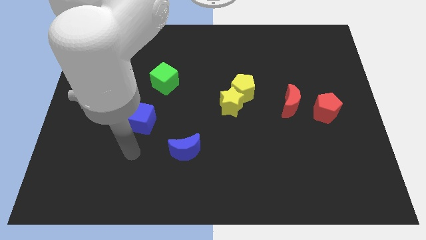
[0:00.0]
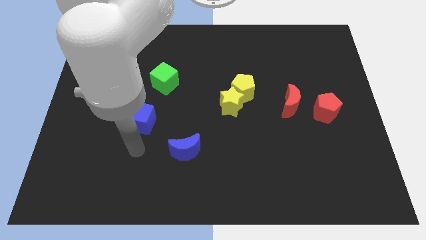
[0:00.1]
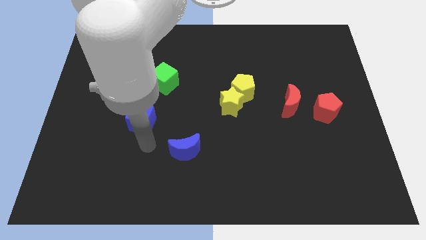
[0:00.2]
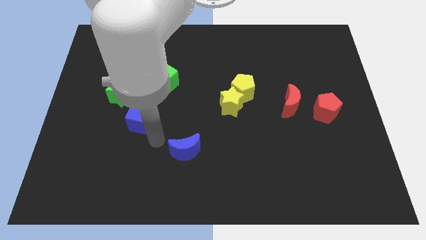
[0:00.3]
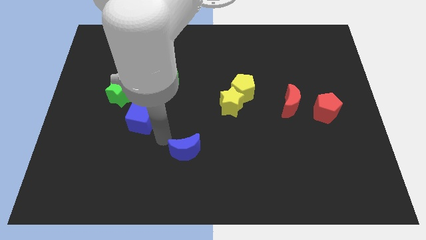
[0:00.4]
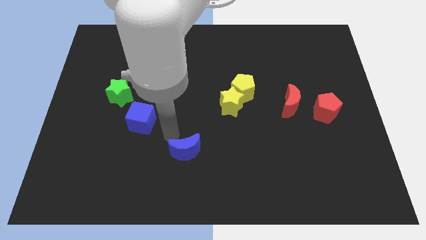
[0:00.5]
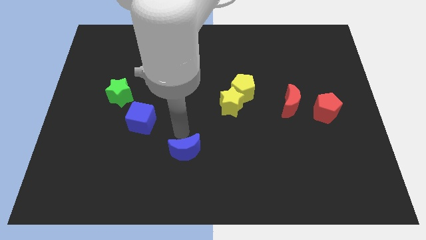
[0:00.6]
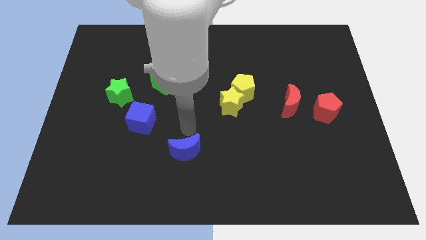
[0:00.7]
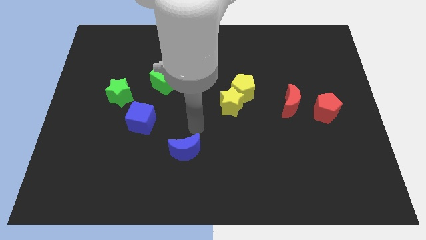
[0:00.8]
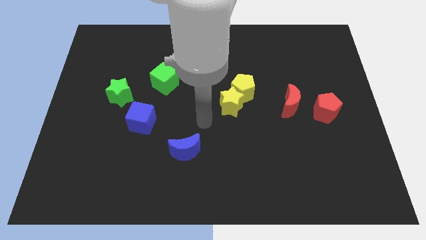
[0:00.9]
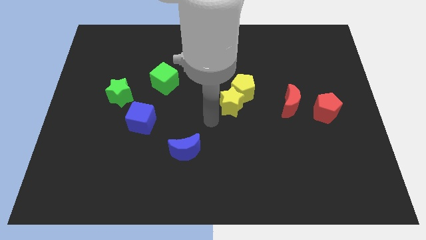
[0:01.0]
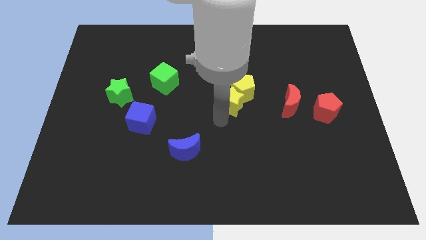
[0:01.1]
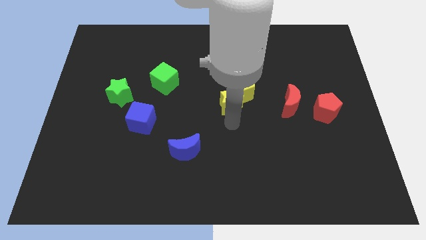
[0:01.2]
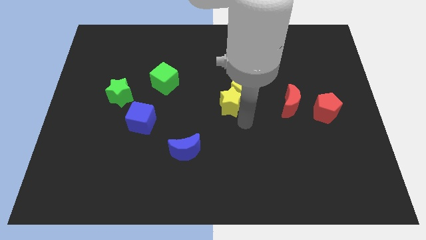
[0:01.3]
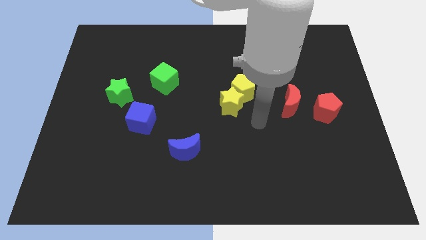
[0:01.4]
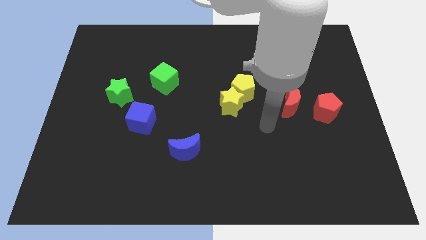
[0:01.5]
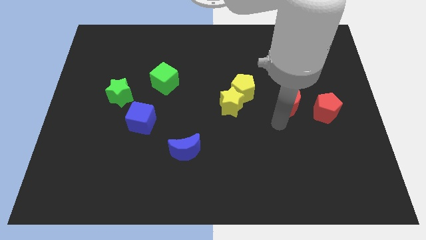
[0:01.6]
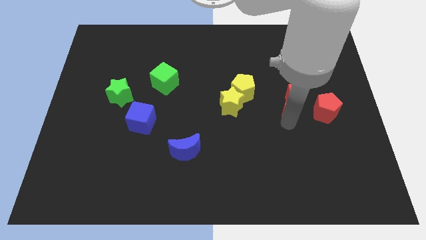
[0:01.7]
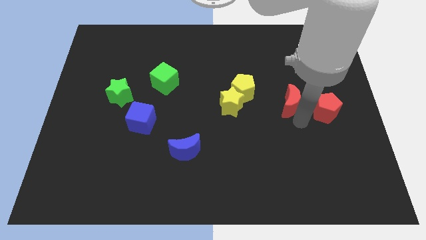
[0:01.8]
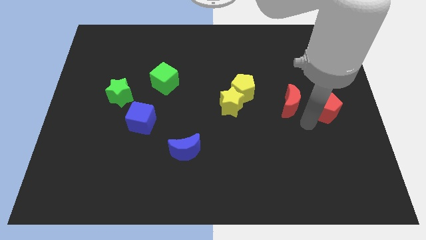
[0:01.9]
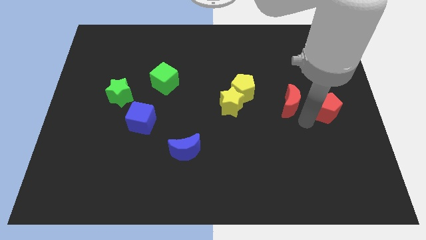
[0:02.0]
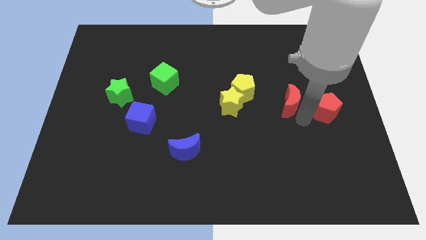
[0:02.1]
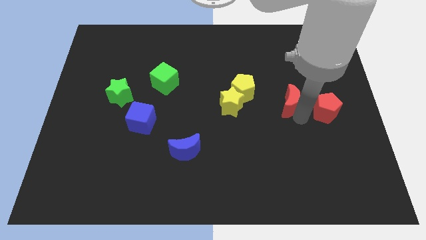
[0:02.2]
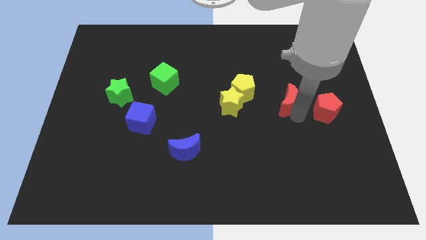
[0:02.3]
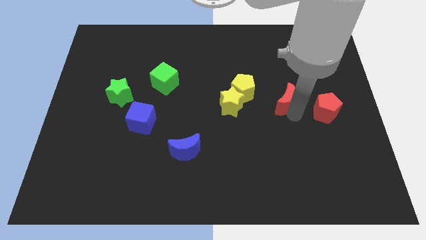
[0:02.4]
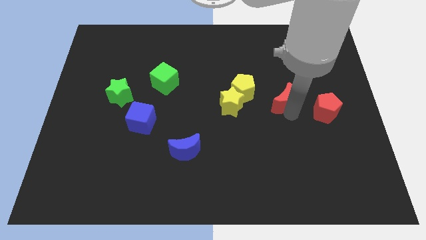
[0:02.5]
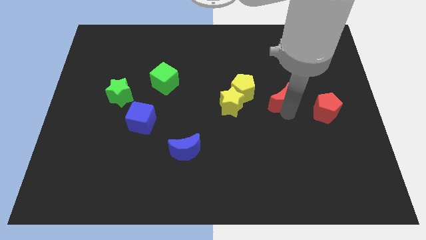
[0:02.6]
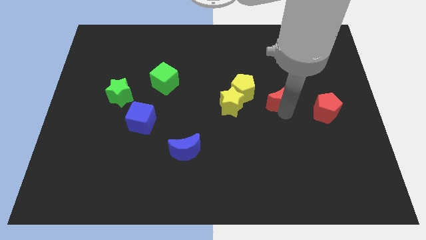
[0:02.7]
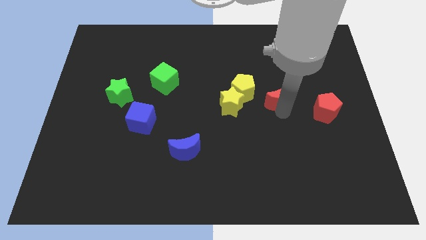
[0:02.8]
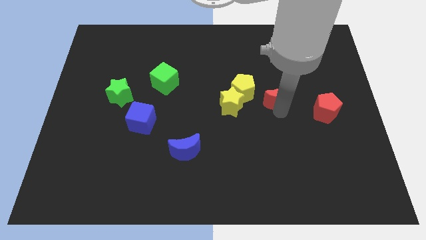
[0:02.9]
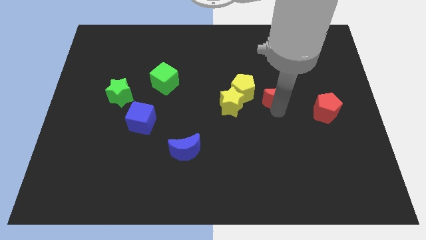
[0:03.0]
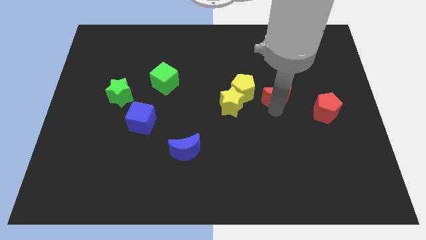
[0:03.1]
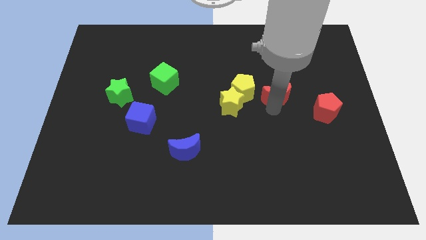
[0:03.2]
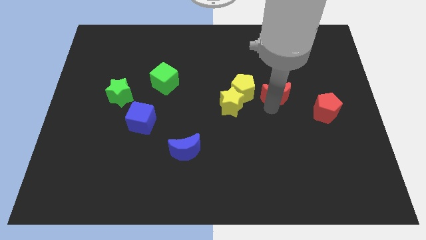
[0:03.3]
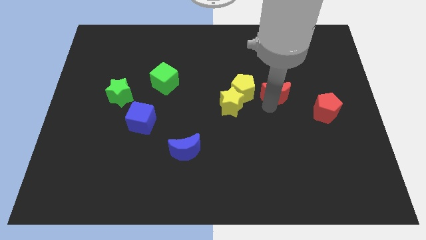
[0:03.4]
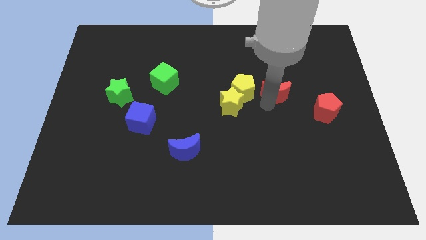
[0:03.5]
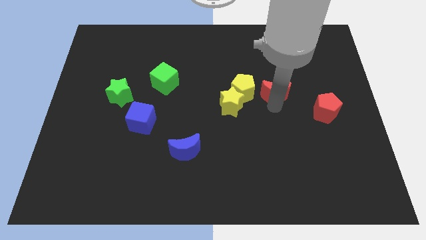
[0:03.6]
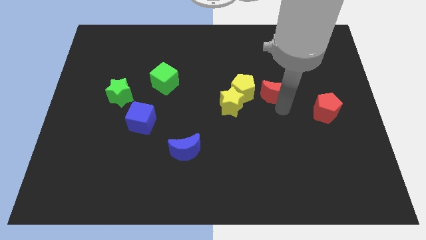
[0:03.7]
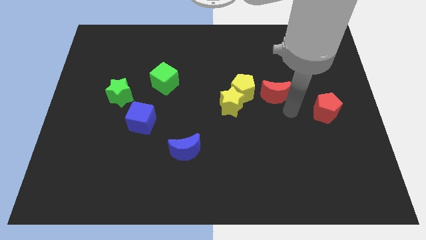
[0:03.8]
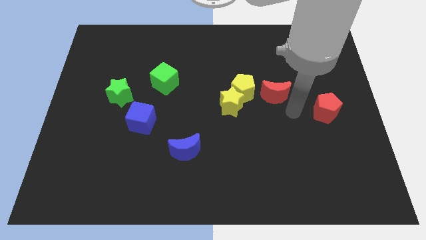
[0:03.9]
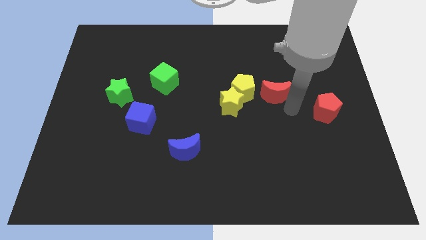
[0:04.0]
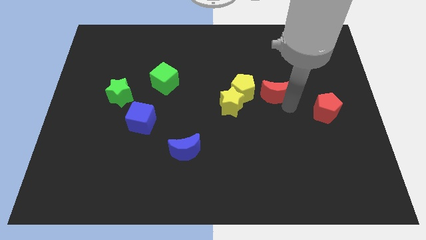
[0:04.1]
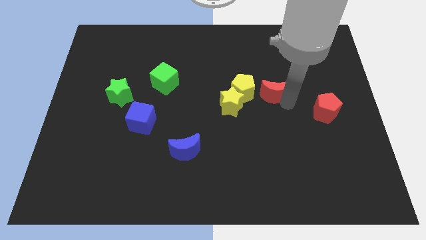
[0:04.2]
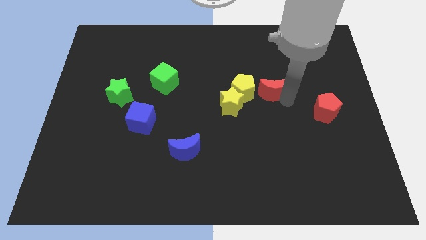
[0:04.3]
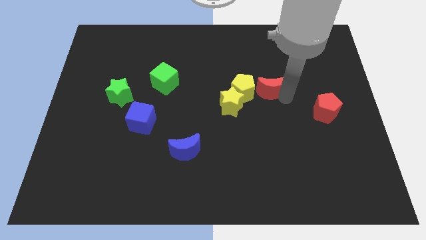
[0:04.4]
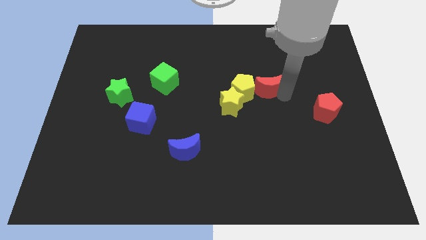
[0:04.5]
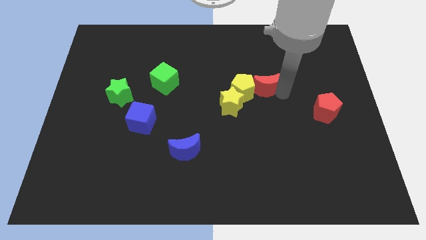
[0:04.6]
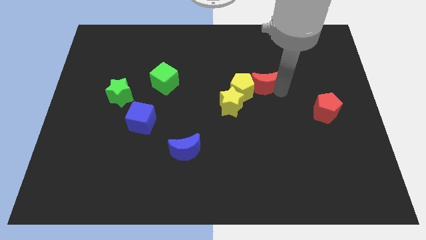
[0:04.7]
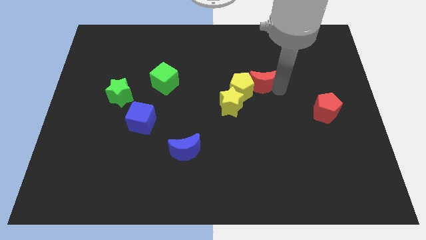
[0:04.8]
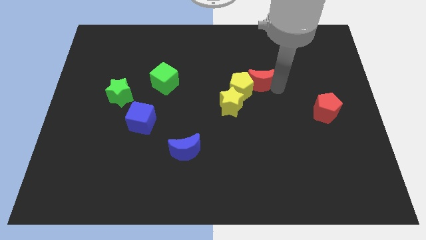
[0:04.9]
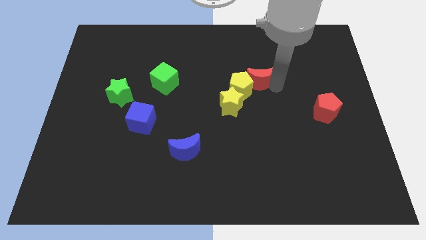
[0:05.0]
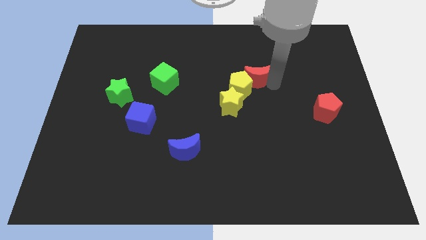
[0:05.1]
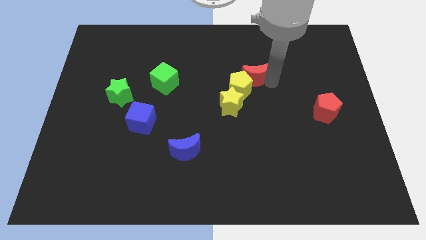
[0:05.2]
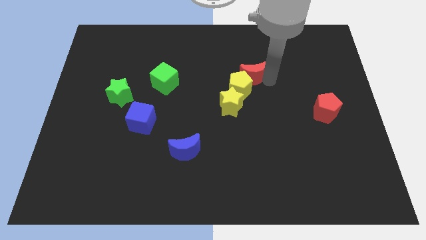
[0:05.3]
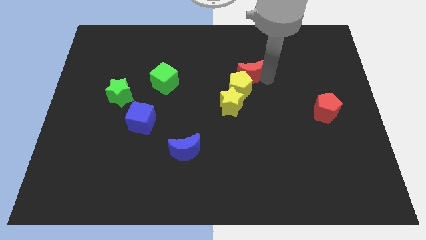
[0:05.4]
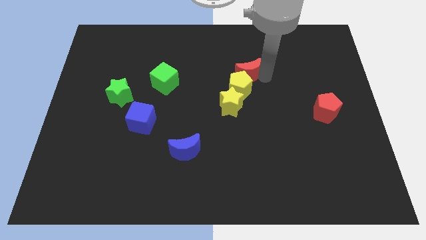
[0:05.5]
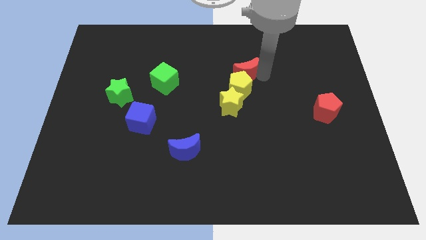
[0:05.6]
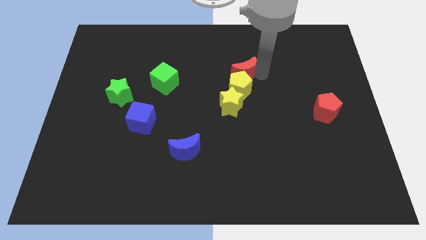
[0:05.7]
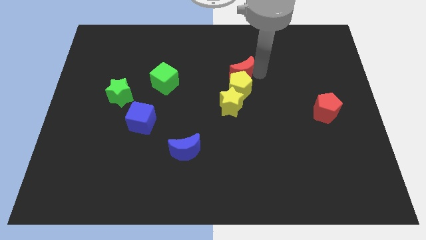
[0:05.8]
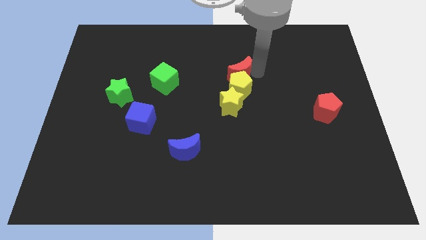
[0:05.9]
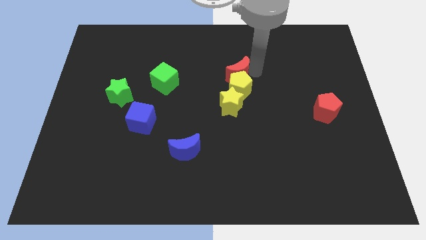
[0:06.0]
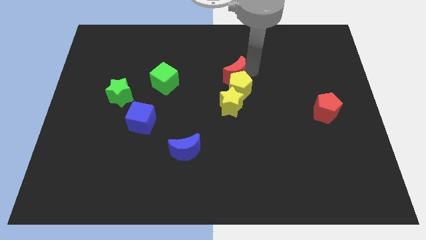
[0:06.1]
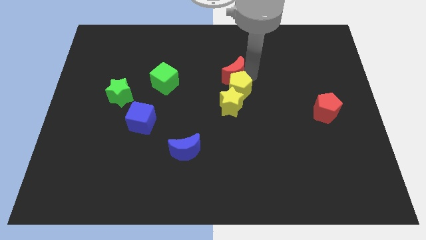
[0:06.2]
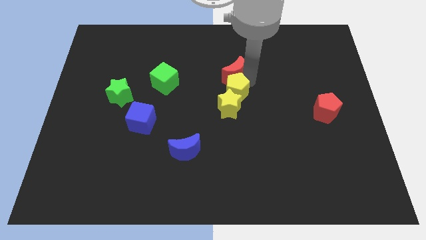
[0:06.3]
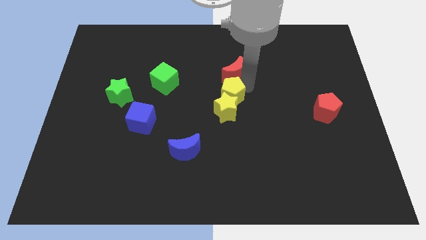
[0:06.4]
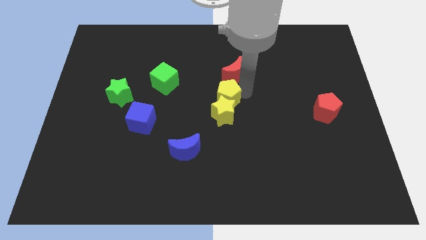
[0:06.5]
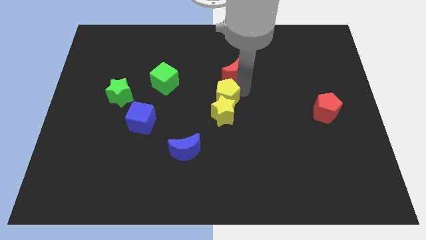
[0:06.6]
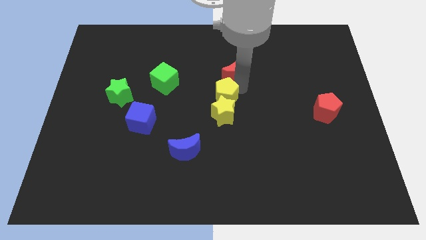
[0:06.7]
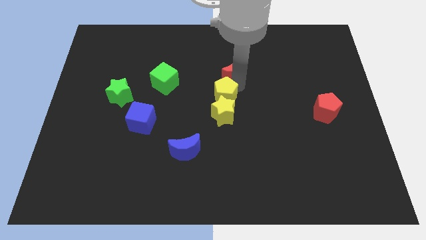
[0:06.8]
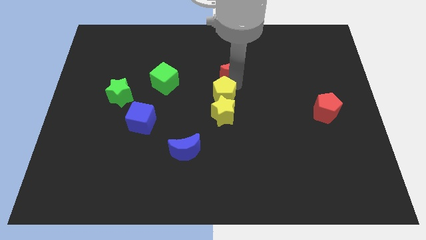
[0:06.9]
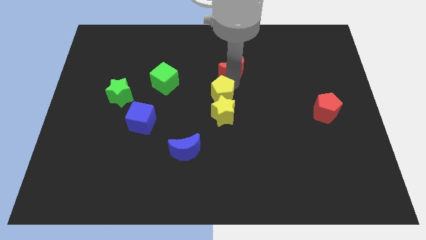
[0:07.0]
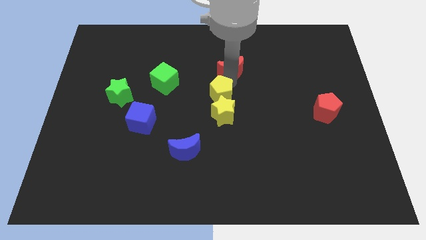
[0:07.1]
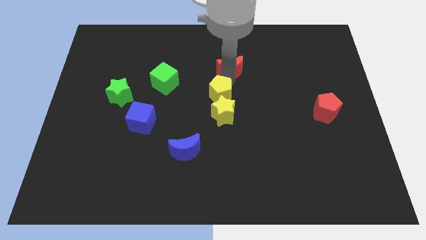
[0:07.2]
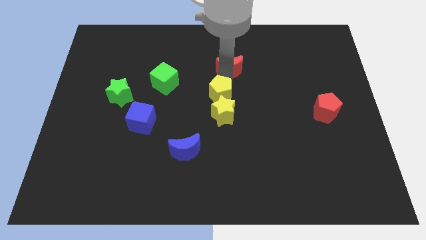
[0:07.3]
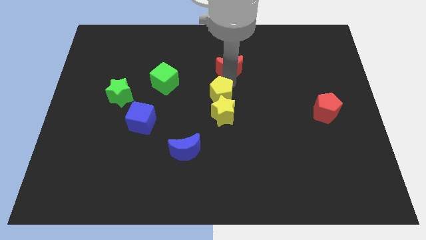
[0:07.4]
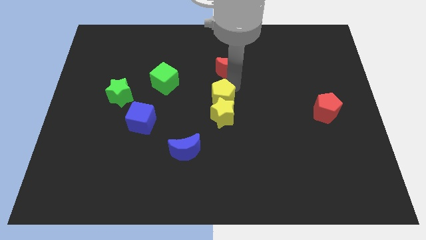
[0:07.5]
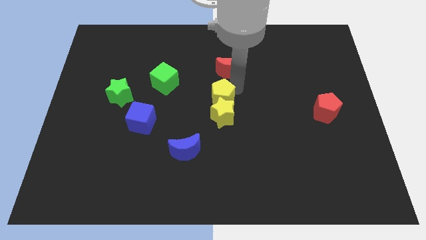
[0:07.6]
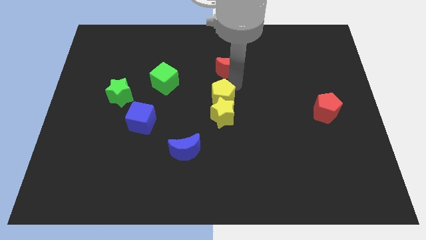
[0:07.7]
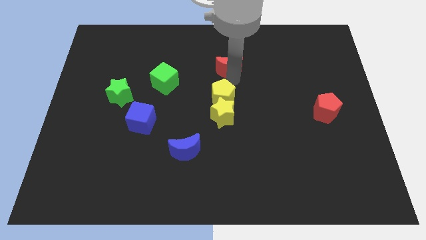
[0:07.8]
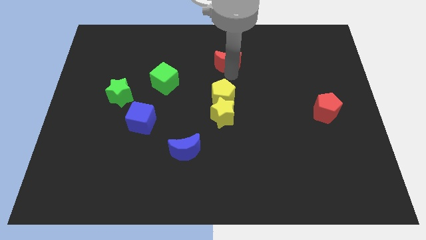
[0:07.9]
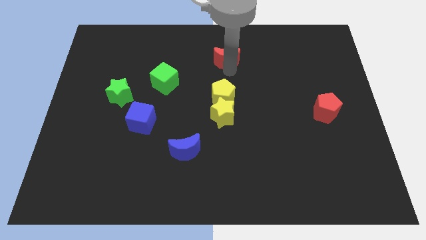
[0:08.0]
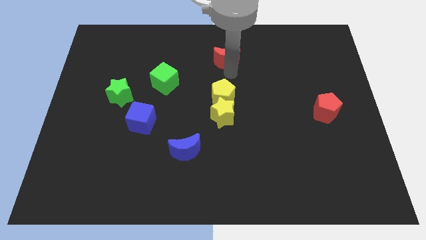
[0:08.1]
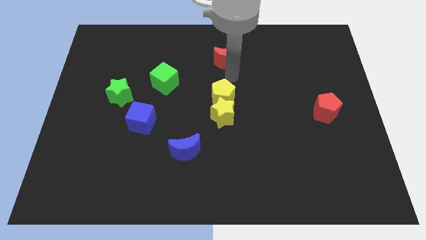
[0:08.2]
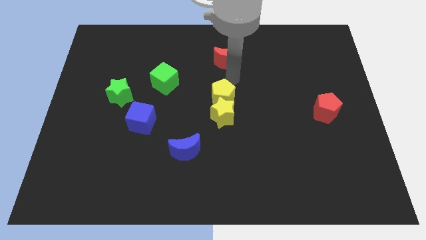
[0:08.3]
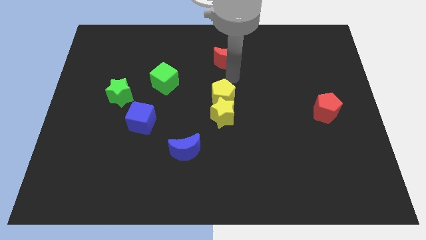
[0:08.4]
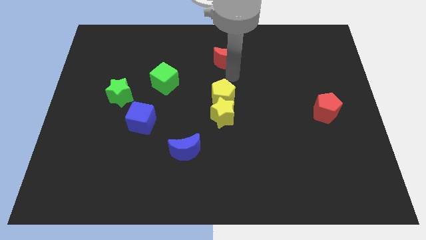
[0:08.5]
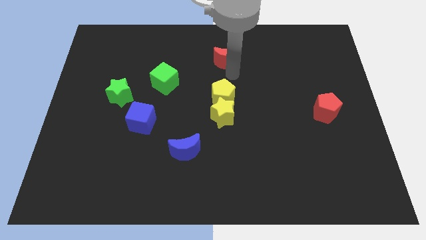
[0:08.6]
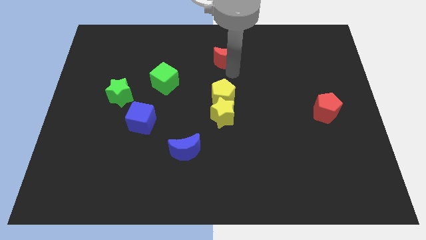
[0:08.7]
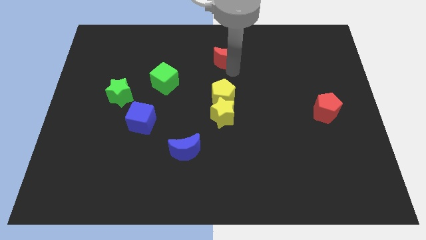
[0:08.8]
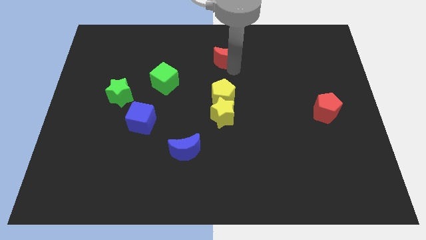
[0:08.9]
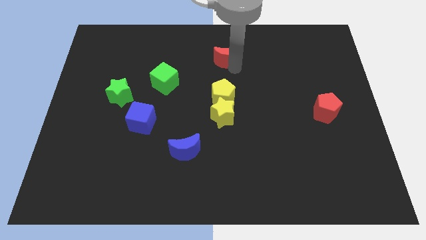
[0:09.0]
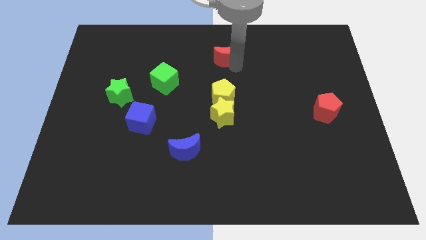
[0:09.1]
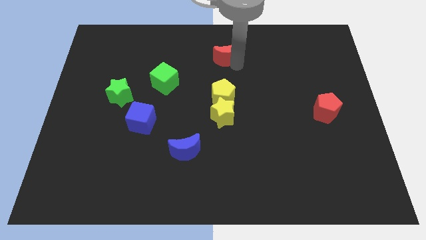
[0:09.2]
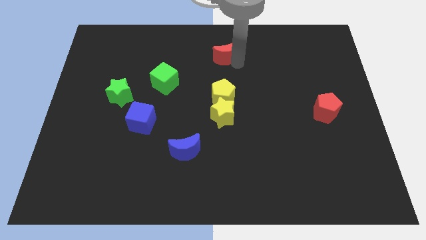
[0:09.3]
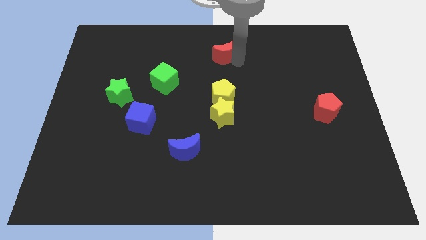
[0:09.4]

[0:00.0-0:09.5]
push the red moon to the top side
